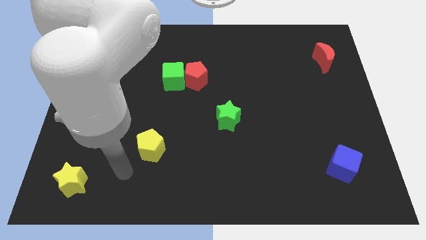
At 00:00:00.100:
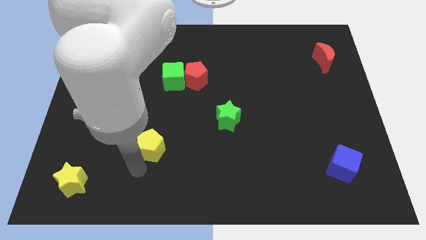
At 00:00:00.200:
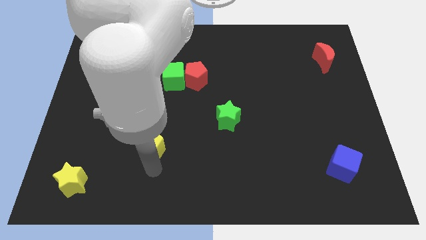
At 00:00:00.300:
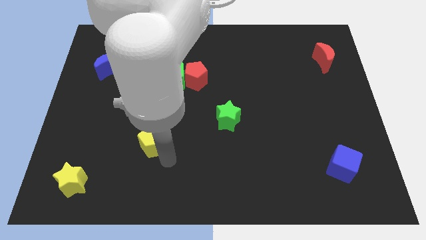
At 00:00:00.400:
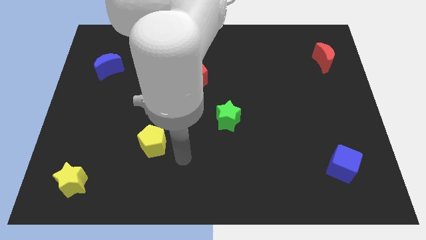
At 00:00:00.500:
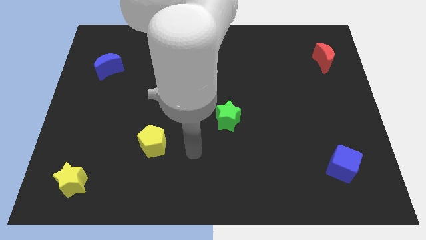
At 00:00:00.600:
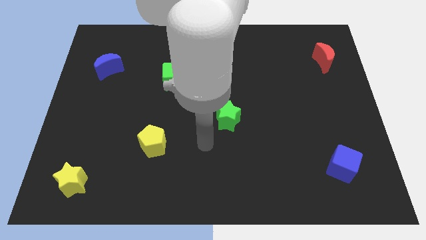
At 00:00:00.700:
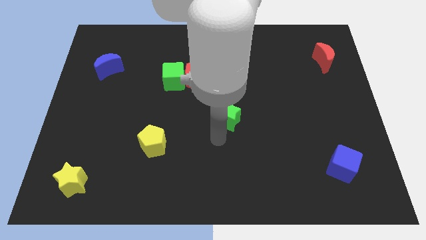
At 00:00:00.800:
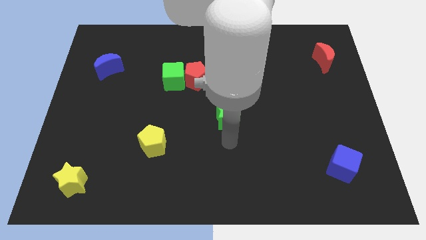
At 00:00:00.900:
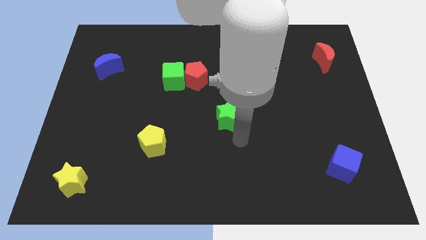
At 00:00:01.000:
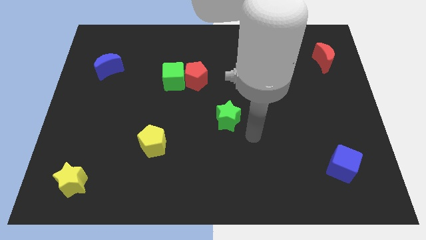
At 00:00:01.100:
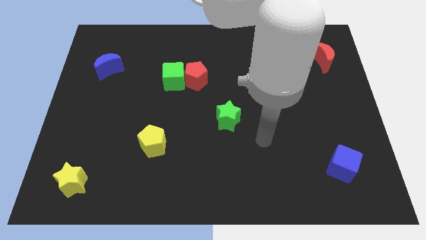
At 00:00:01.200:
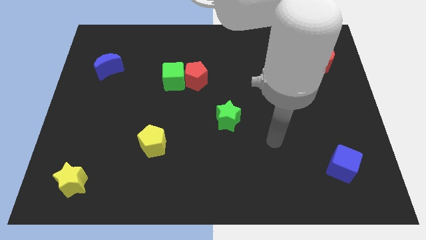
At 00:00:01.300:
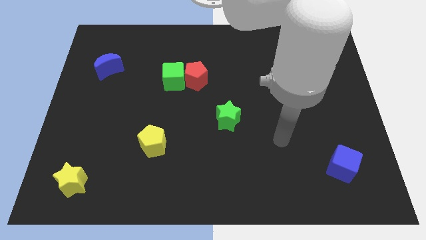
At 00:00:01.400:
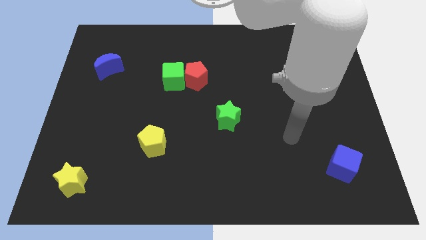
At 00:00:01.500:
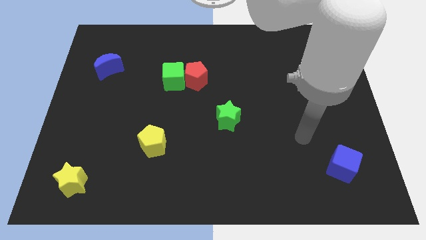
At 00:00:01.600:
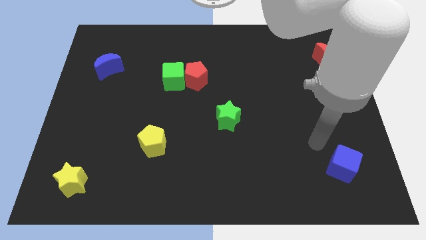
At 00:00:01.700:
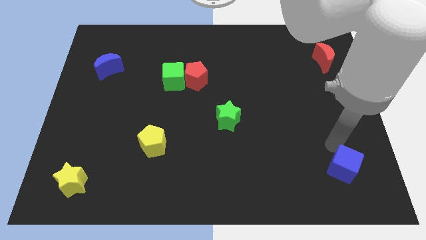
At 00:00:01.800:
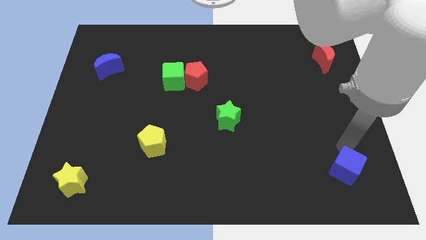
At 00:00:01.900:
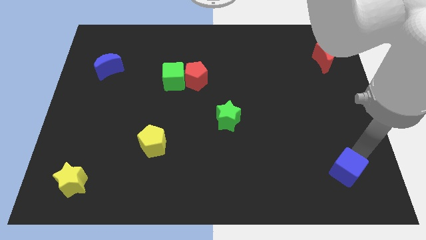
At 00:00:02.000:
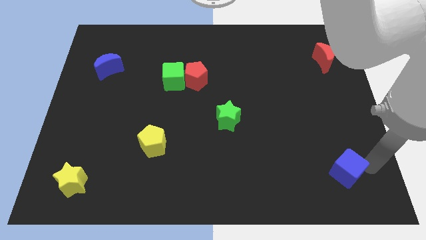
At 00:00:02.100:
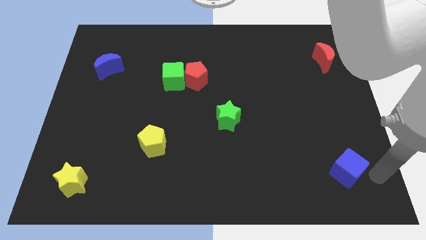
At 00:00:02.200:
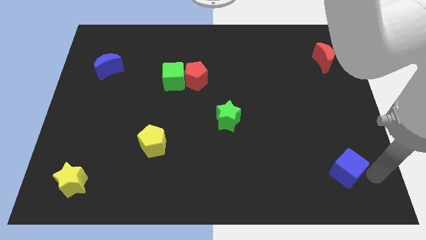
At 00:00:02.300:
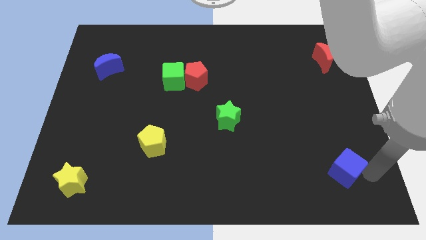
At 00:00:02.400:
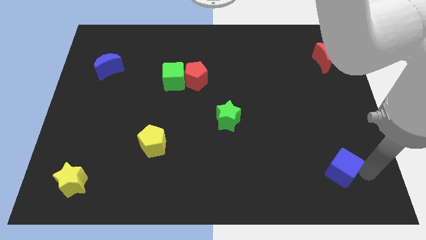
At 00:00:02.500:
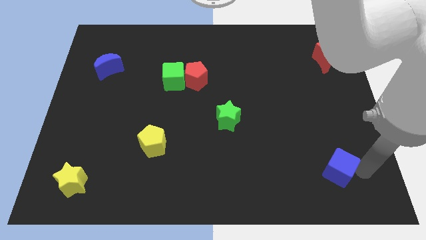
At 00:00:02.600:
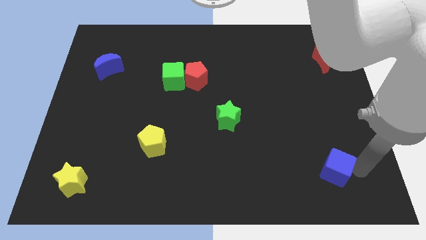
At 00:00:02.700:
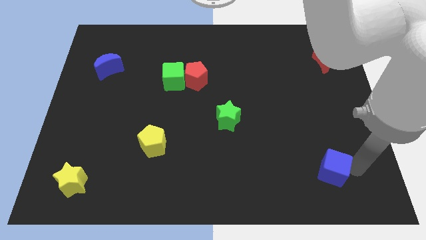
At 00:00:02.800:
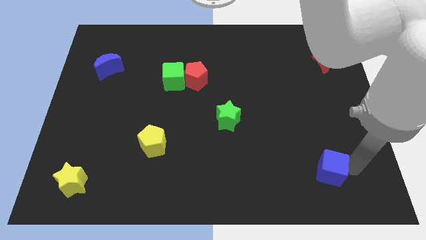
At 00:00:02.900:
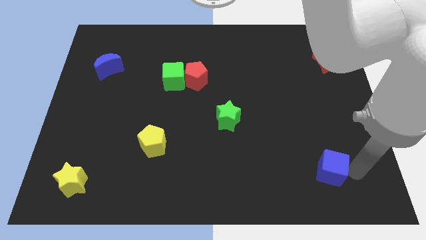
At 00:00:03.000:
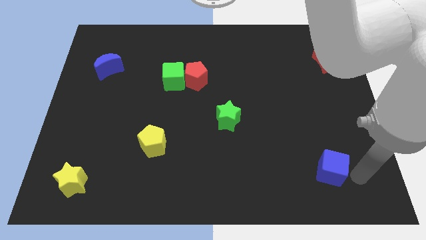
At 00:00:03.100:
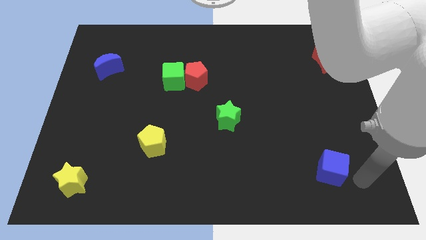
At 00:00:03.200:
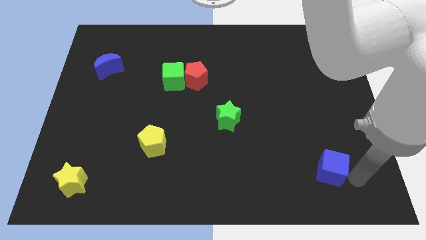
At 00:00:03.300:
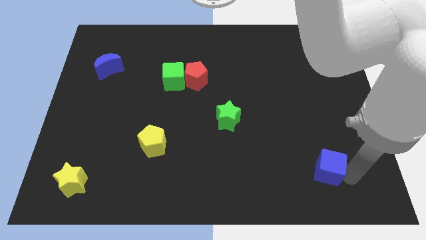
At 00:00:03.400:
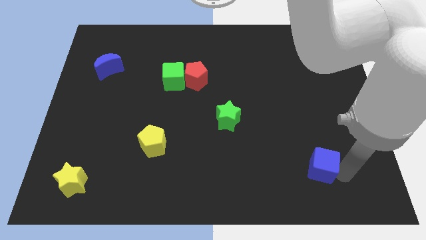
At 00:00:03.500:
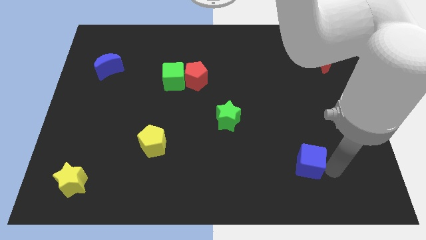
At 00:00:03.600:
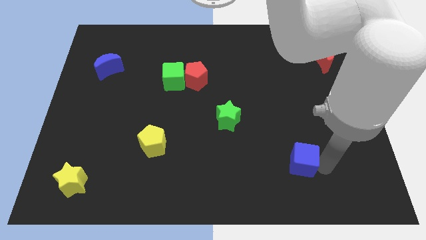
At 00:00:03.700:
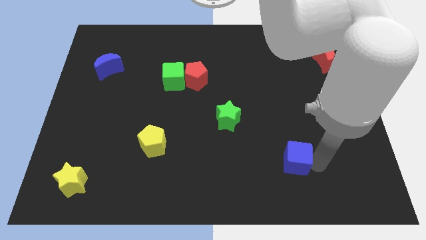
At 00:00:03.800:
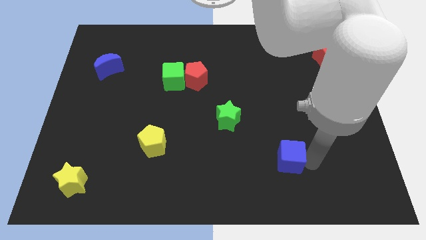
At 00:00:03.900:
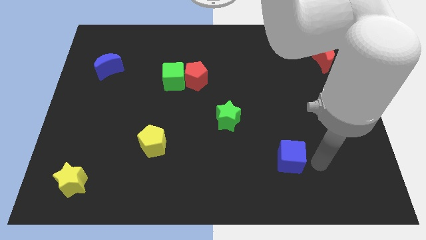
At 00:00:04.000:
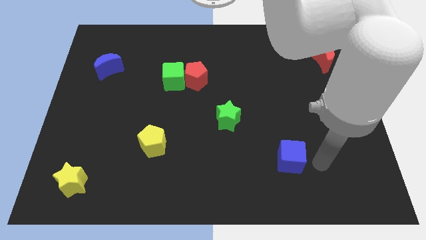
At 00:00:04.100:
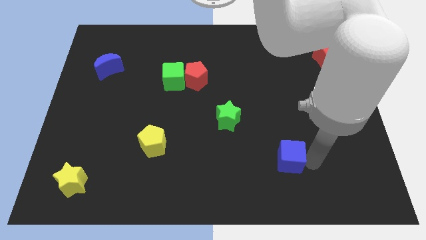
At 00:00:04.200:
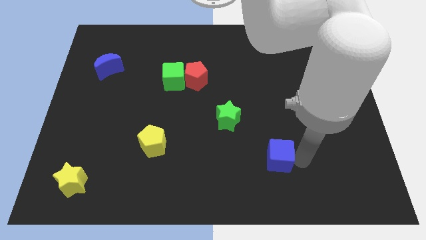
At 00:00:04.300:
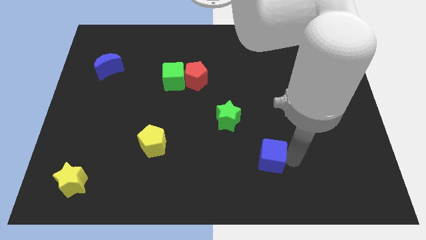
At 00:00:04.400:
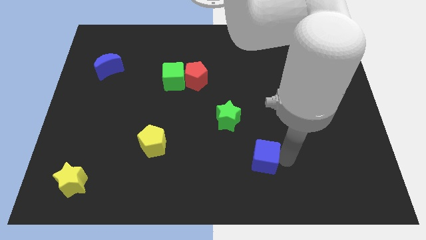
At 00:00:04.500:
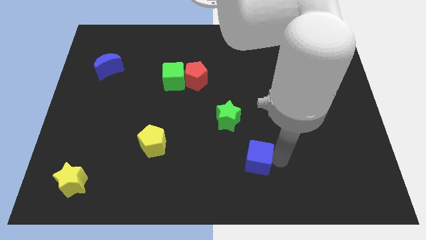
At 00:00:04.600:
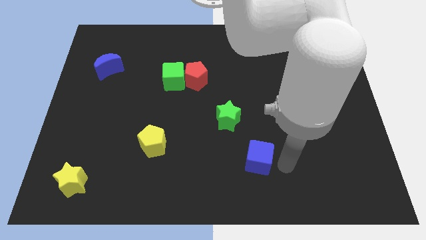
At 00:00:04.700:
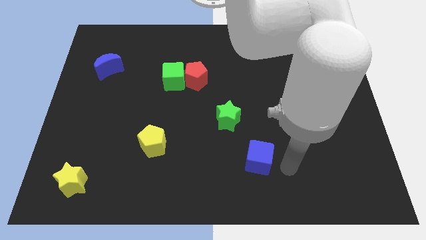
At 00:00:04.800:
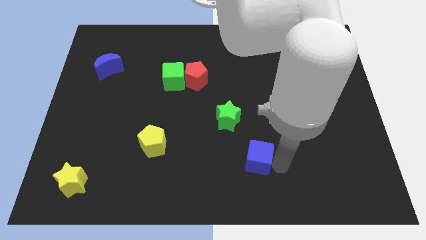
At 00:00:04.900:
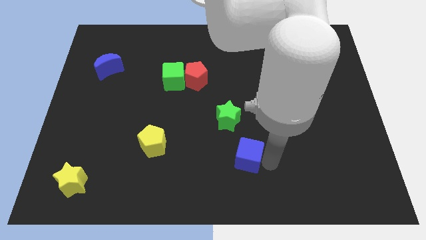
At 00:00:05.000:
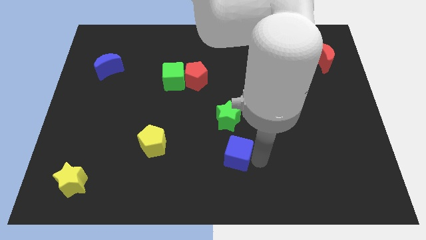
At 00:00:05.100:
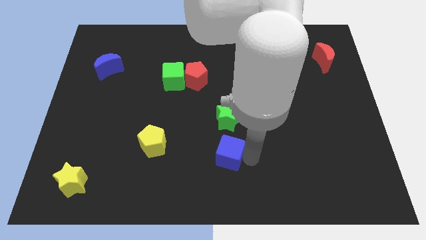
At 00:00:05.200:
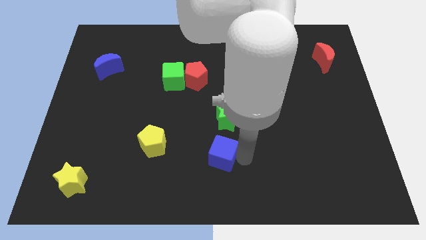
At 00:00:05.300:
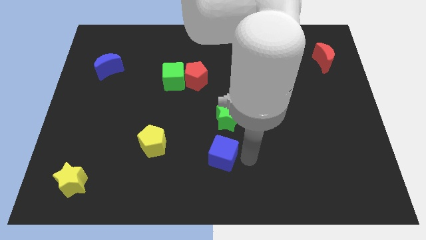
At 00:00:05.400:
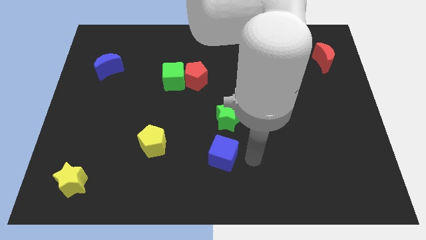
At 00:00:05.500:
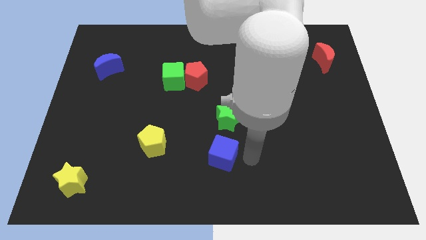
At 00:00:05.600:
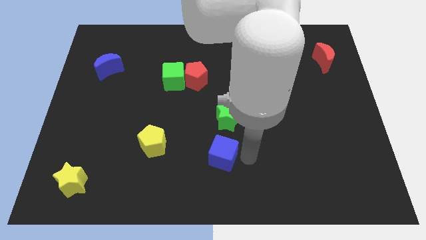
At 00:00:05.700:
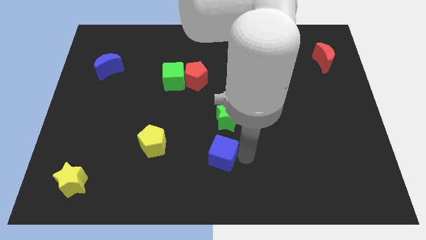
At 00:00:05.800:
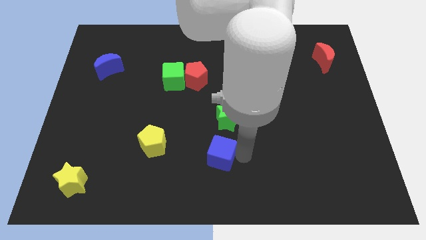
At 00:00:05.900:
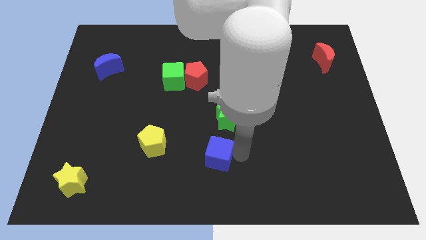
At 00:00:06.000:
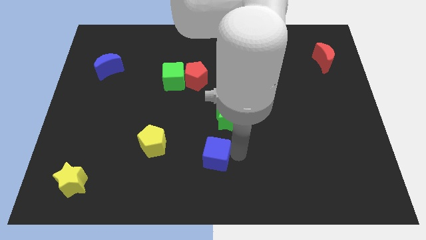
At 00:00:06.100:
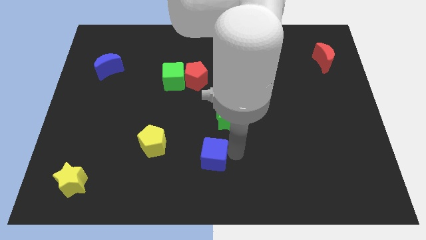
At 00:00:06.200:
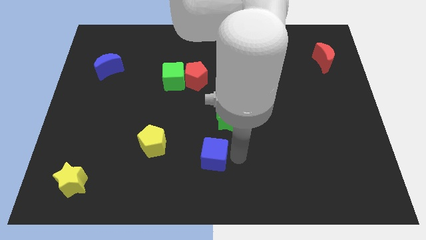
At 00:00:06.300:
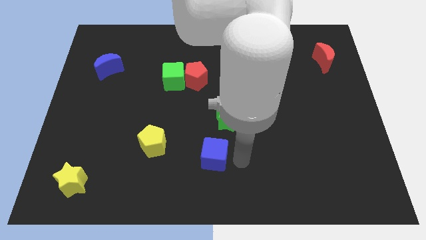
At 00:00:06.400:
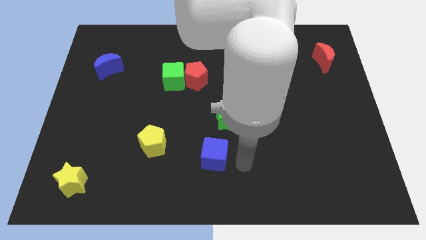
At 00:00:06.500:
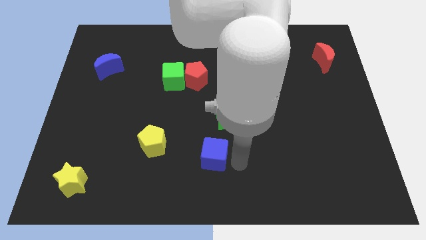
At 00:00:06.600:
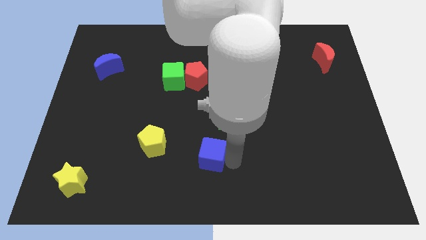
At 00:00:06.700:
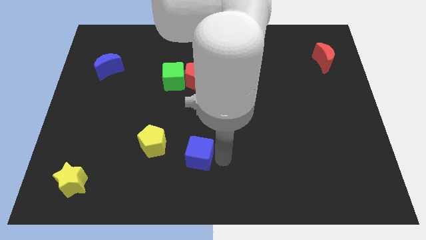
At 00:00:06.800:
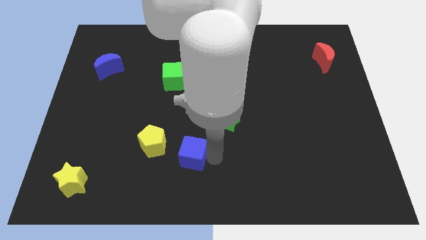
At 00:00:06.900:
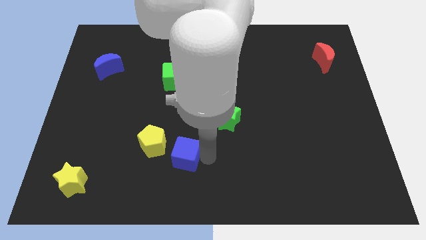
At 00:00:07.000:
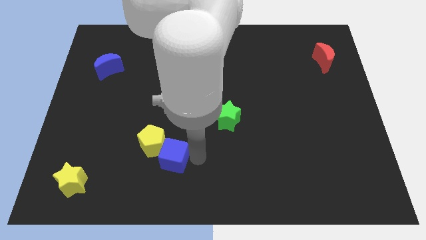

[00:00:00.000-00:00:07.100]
slide the blue cube next to the yellow pentagon

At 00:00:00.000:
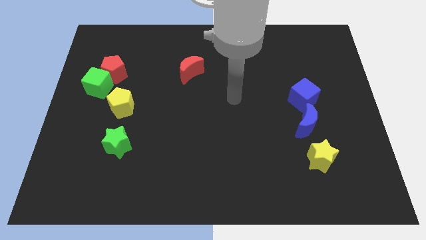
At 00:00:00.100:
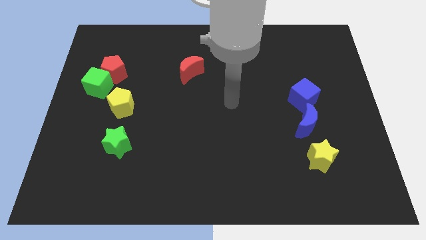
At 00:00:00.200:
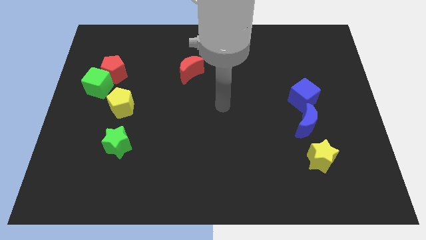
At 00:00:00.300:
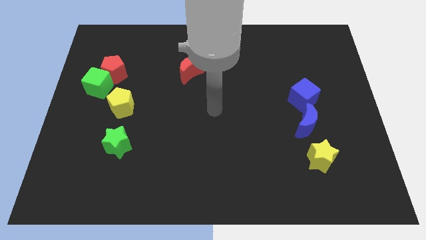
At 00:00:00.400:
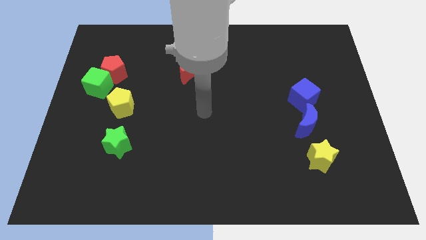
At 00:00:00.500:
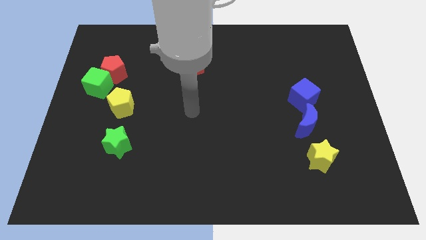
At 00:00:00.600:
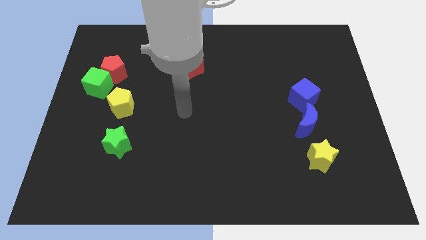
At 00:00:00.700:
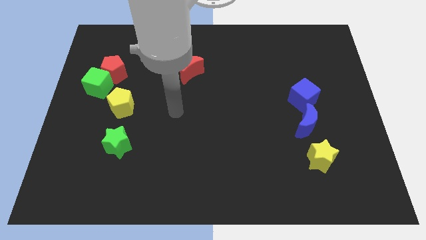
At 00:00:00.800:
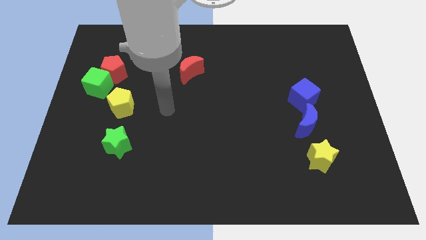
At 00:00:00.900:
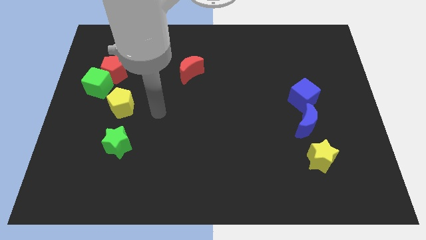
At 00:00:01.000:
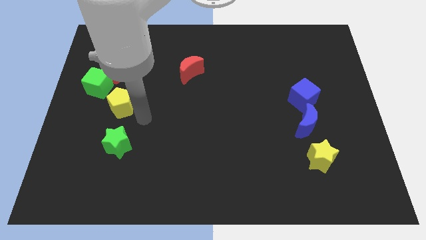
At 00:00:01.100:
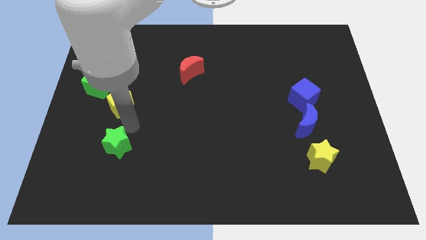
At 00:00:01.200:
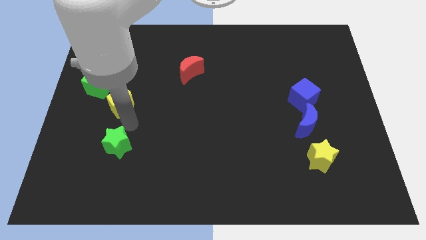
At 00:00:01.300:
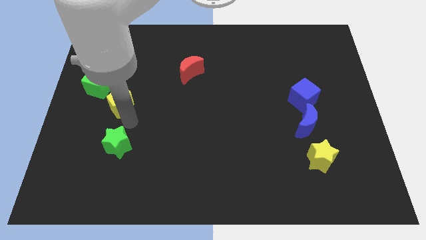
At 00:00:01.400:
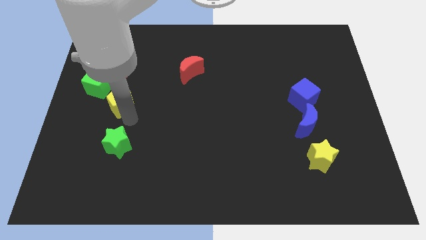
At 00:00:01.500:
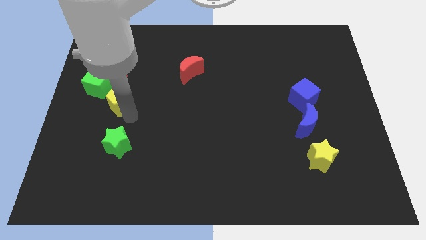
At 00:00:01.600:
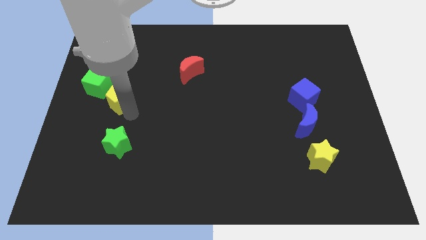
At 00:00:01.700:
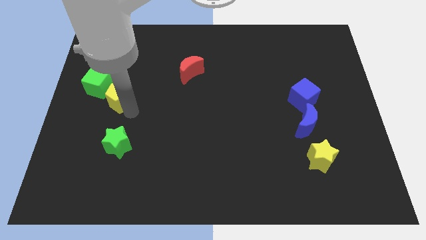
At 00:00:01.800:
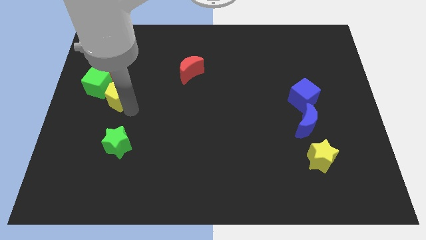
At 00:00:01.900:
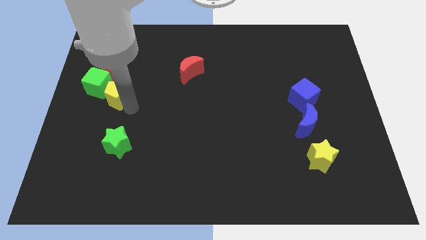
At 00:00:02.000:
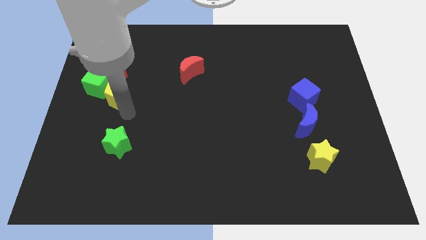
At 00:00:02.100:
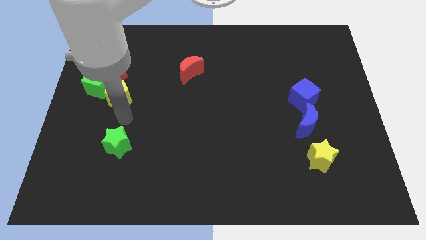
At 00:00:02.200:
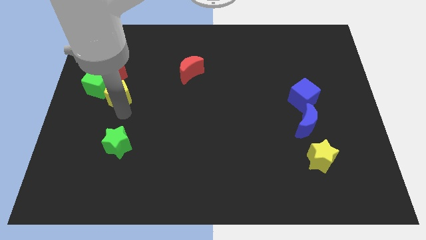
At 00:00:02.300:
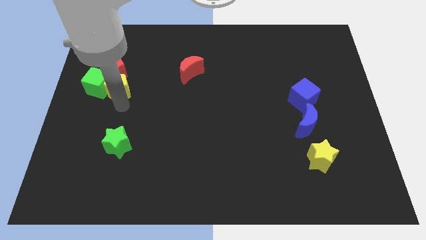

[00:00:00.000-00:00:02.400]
move the yellow pentagon next to the red pentagon
